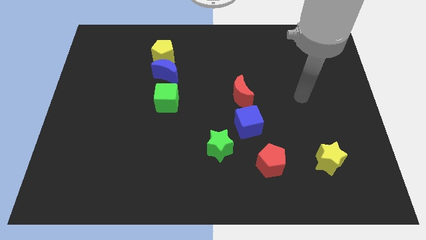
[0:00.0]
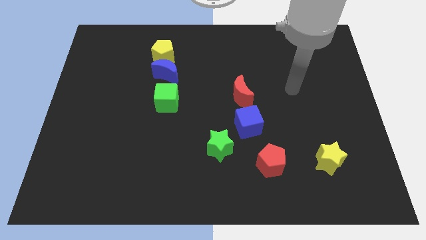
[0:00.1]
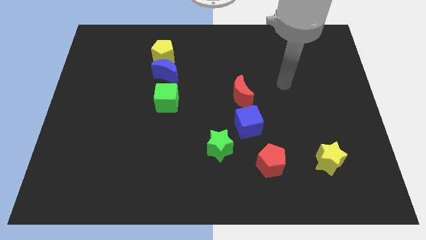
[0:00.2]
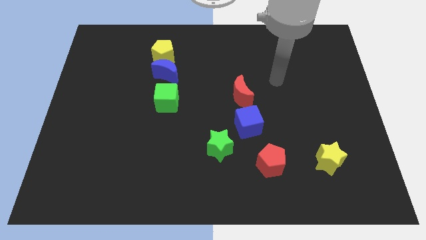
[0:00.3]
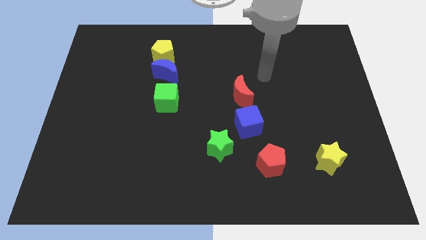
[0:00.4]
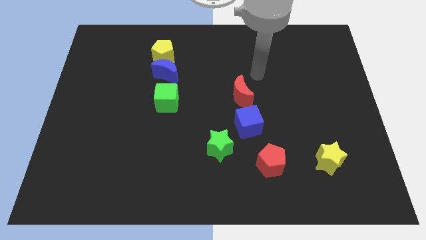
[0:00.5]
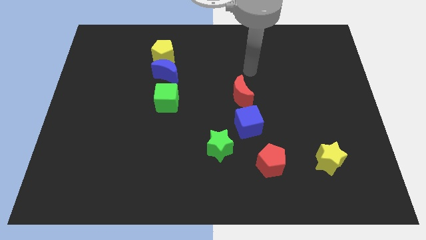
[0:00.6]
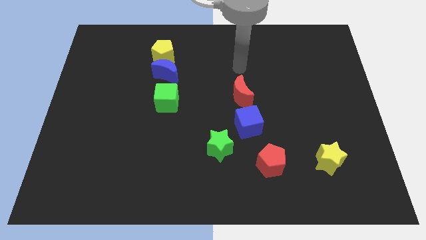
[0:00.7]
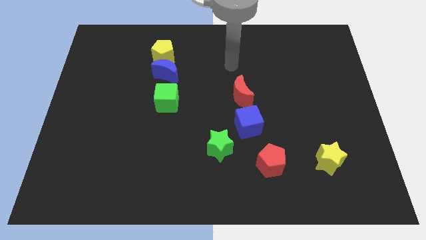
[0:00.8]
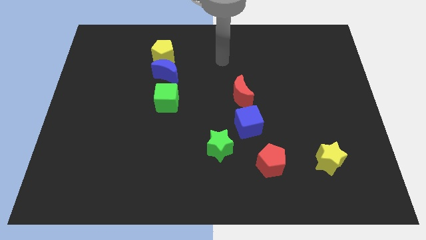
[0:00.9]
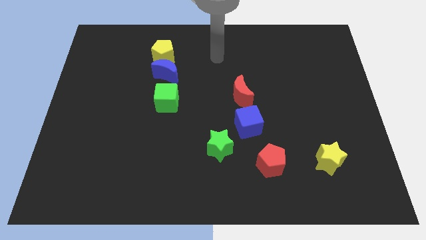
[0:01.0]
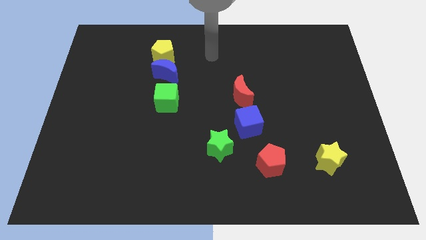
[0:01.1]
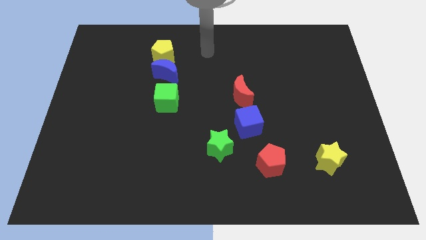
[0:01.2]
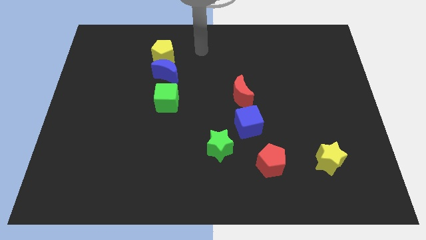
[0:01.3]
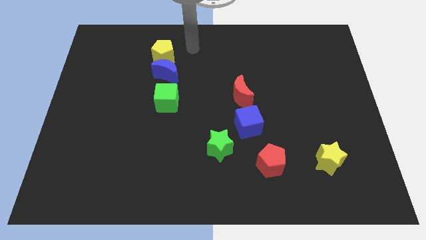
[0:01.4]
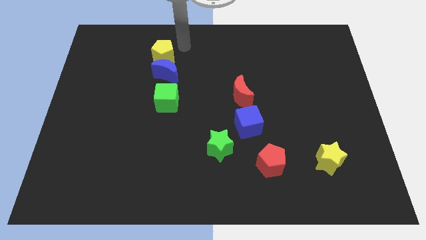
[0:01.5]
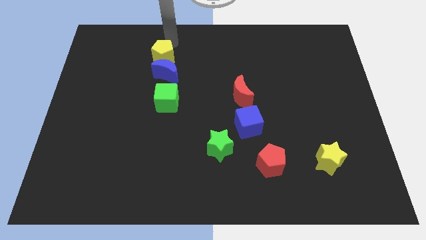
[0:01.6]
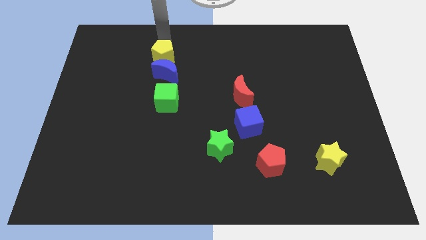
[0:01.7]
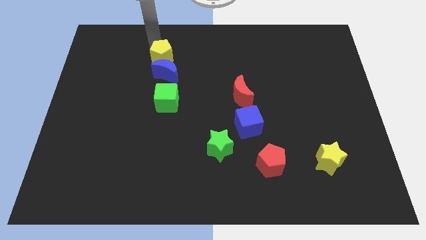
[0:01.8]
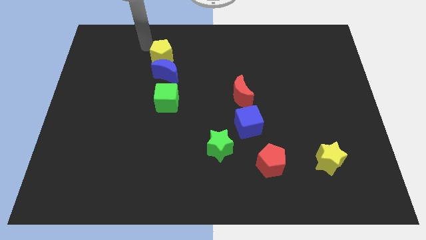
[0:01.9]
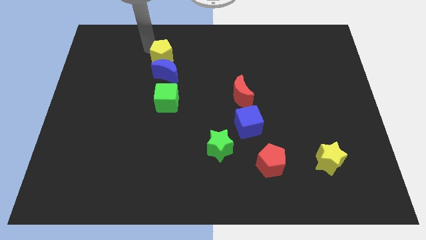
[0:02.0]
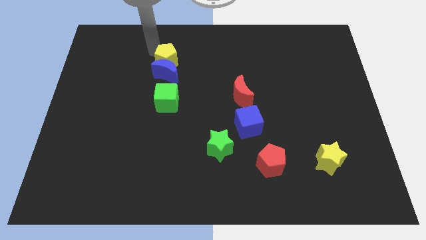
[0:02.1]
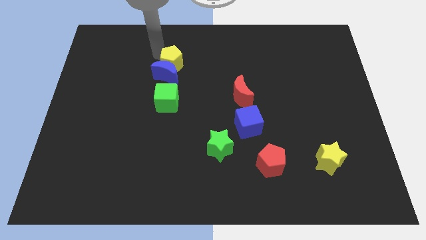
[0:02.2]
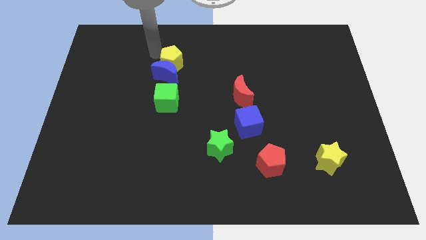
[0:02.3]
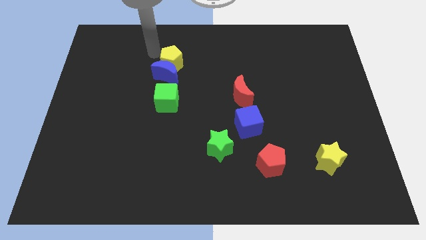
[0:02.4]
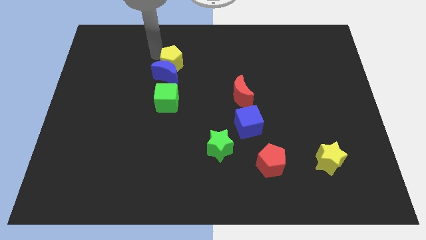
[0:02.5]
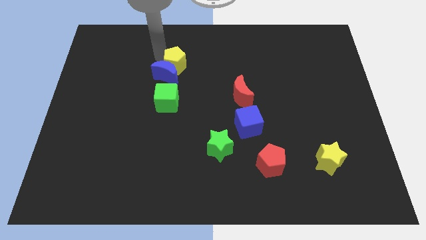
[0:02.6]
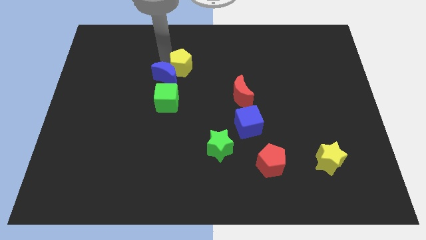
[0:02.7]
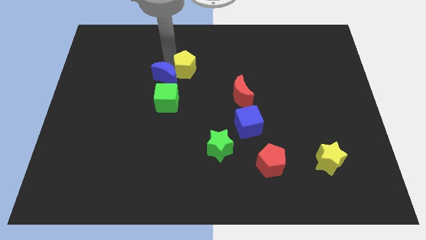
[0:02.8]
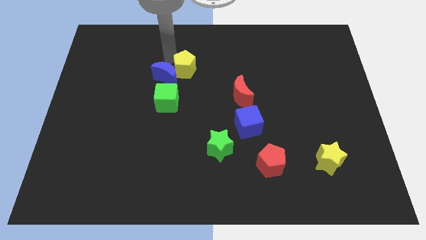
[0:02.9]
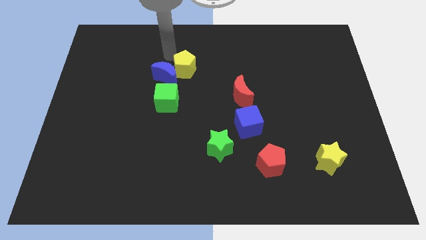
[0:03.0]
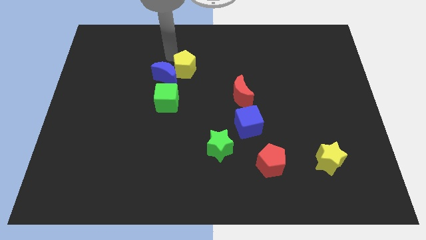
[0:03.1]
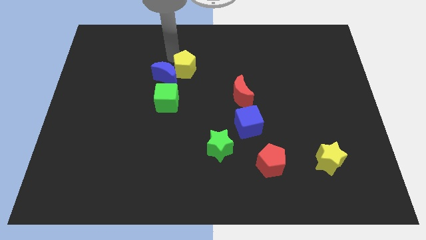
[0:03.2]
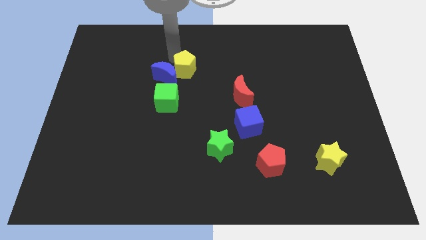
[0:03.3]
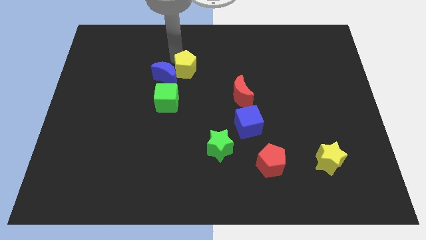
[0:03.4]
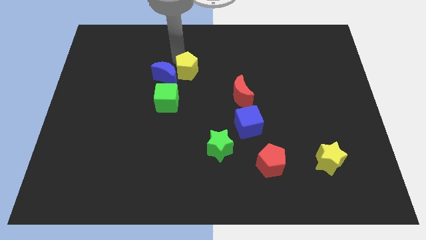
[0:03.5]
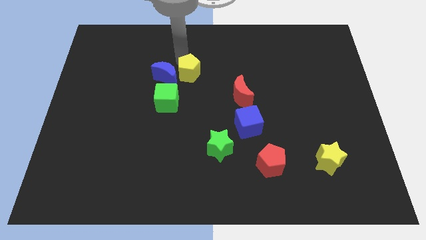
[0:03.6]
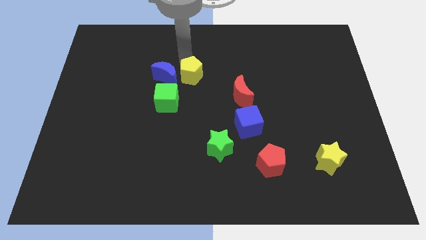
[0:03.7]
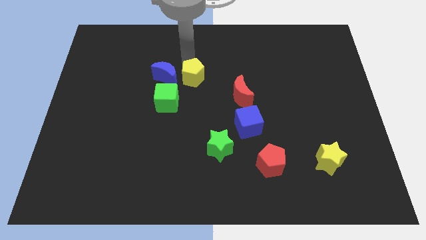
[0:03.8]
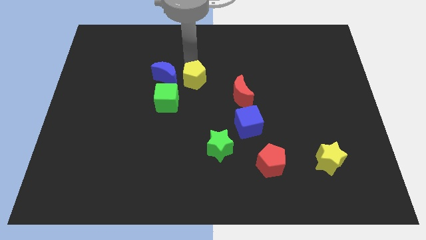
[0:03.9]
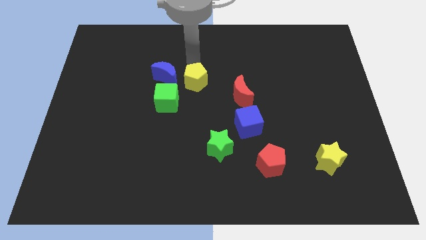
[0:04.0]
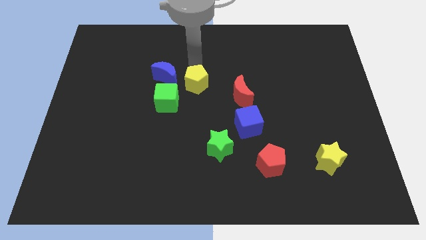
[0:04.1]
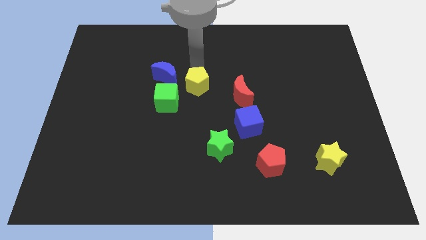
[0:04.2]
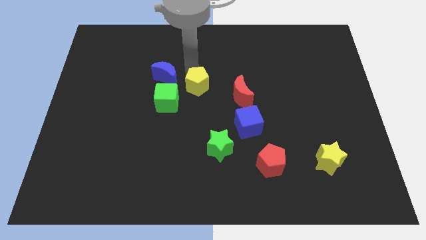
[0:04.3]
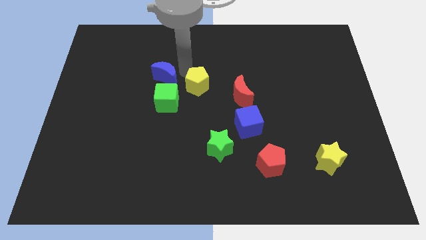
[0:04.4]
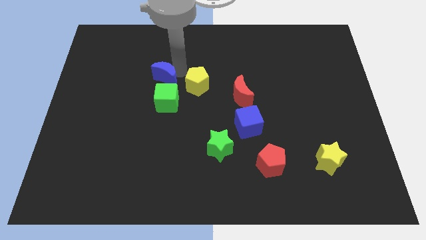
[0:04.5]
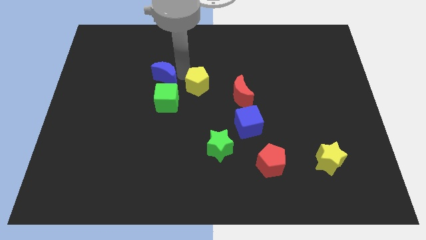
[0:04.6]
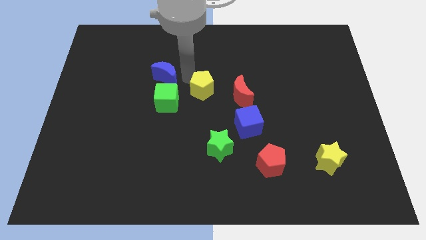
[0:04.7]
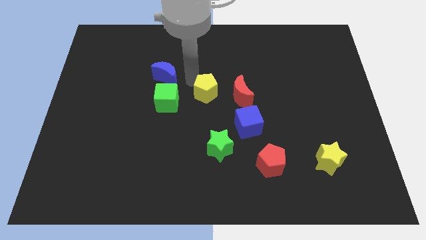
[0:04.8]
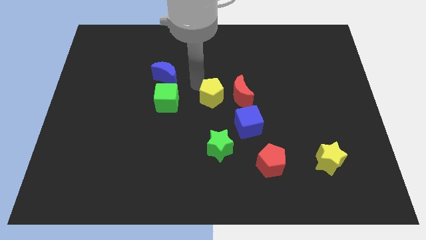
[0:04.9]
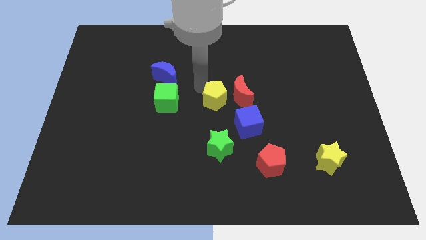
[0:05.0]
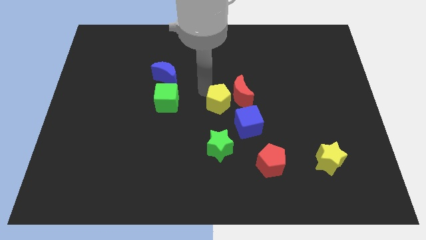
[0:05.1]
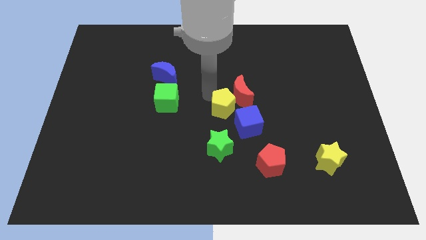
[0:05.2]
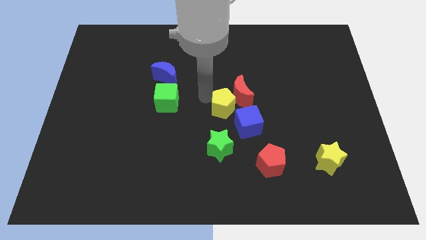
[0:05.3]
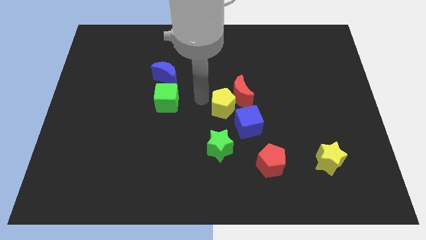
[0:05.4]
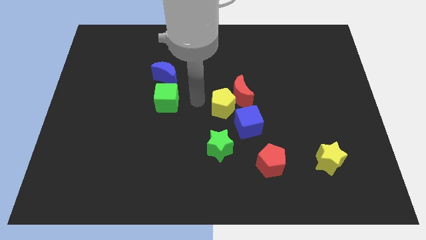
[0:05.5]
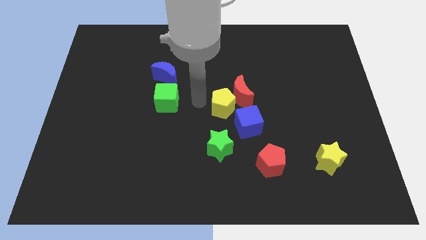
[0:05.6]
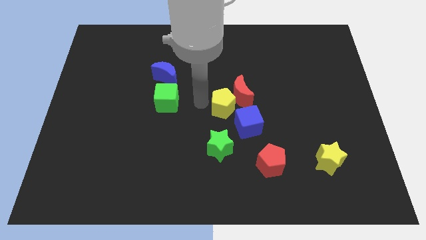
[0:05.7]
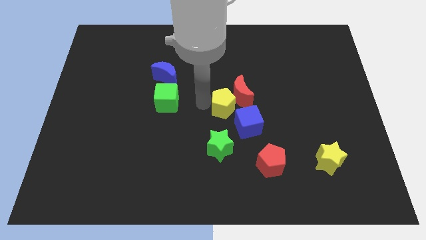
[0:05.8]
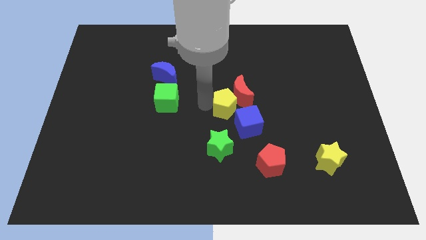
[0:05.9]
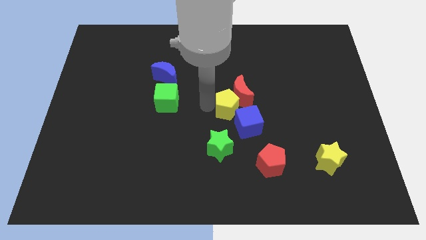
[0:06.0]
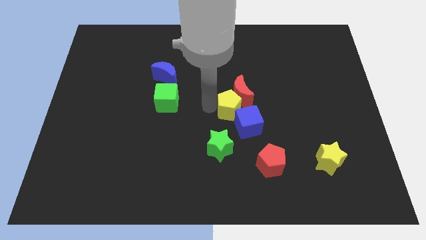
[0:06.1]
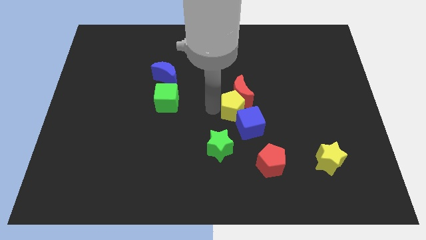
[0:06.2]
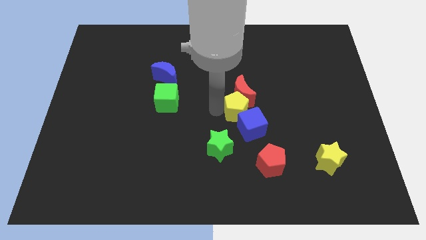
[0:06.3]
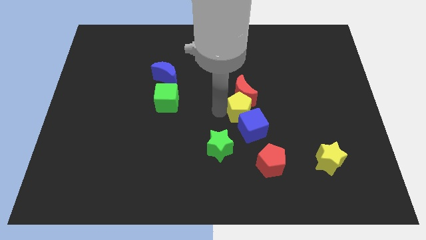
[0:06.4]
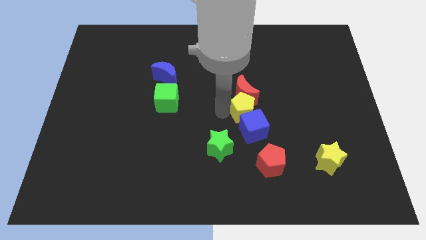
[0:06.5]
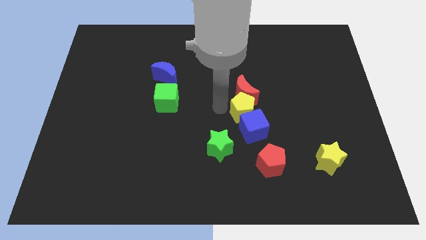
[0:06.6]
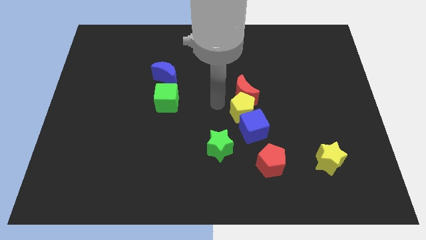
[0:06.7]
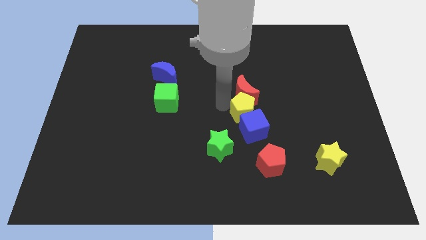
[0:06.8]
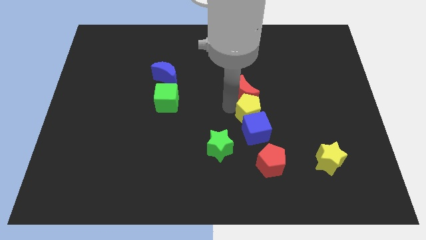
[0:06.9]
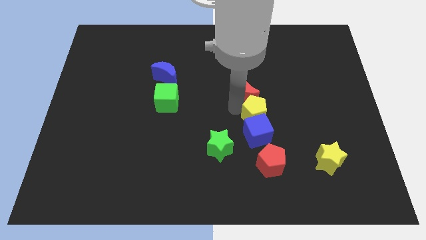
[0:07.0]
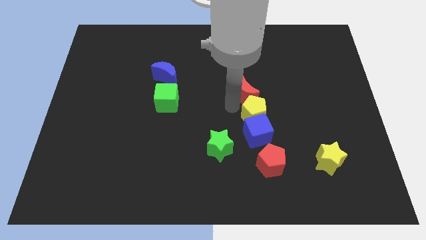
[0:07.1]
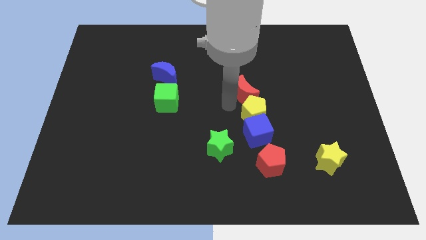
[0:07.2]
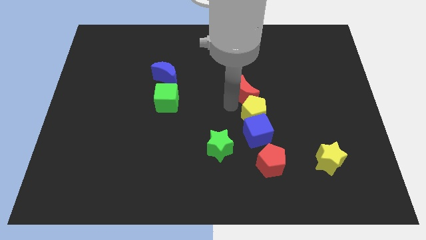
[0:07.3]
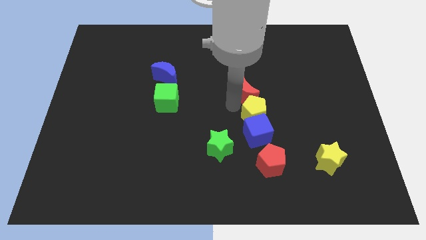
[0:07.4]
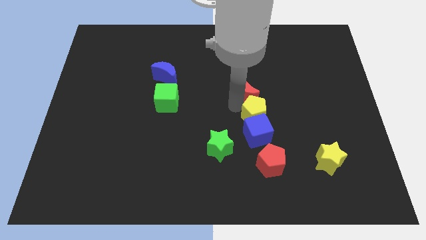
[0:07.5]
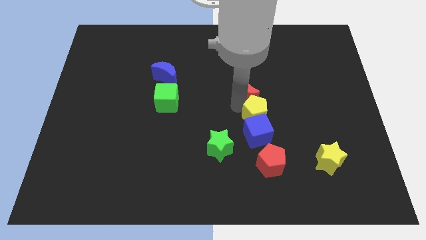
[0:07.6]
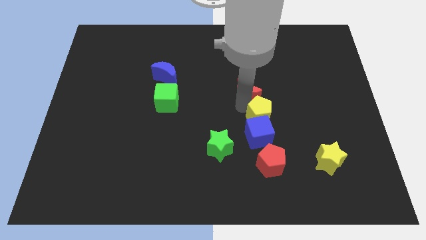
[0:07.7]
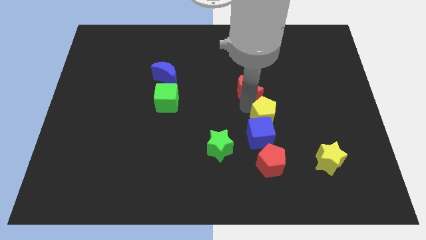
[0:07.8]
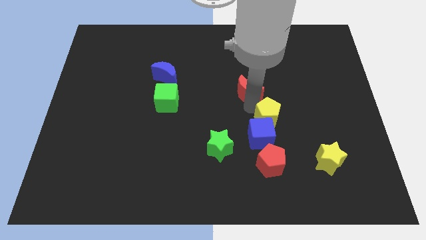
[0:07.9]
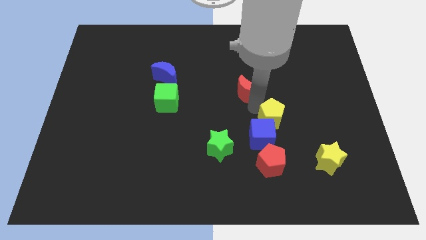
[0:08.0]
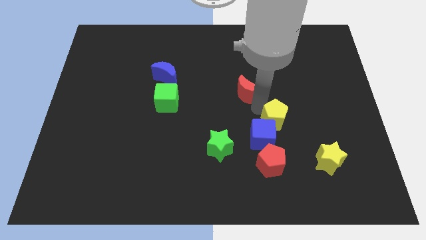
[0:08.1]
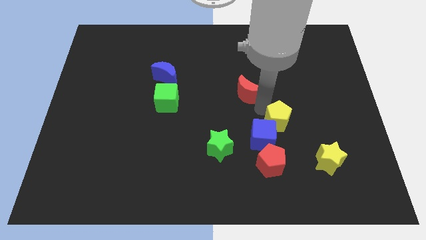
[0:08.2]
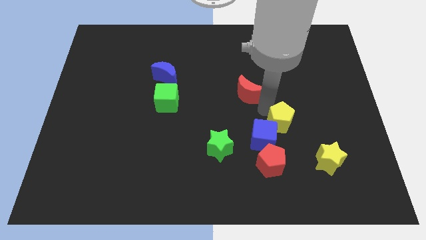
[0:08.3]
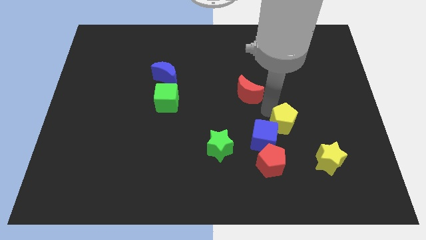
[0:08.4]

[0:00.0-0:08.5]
push the yellow pentagon to the top right side of the red pentagon
